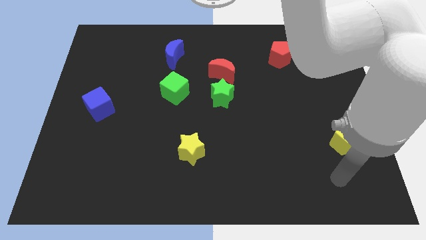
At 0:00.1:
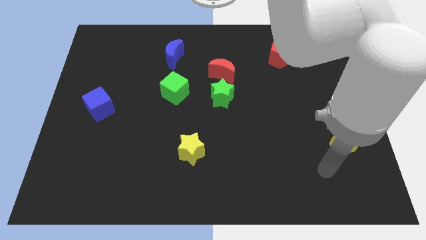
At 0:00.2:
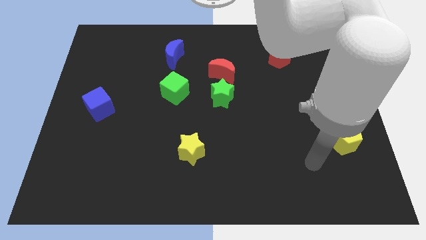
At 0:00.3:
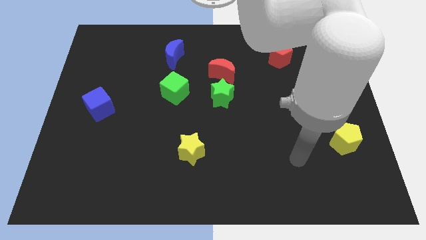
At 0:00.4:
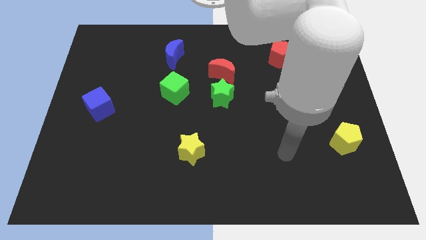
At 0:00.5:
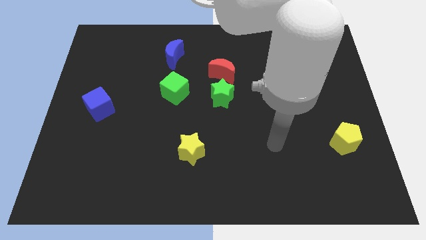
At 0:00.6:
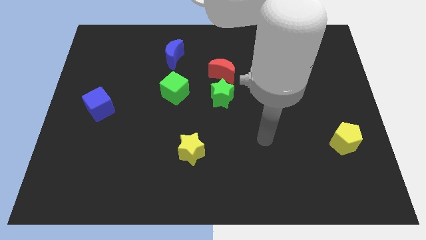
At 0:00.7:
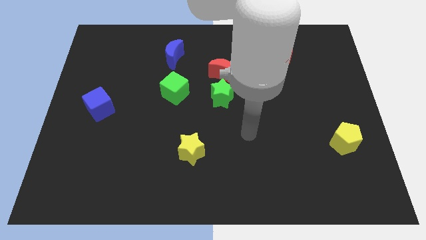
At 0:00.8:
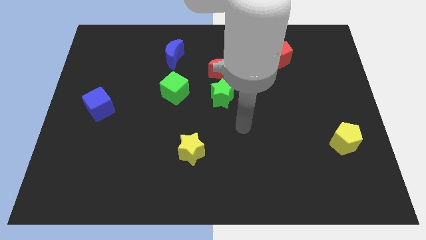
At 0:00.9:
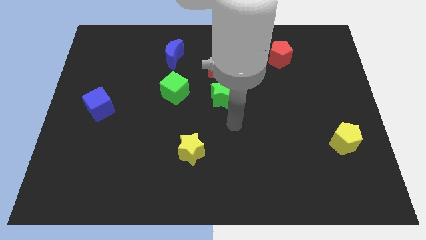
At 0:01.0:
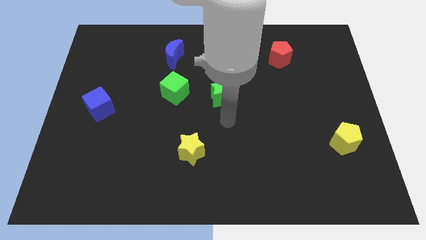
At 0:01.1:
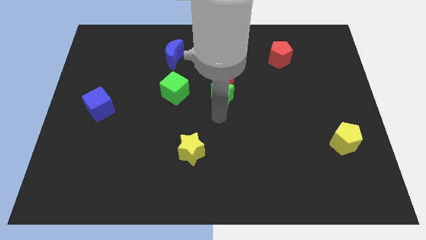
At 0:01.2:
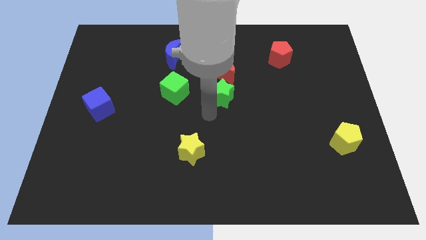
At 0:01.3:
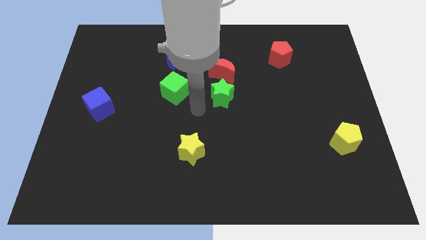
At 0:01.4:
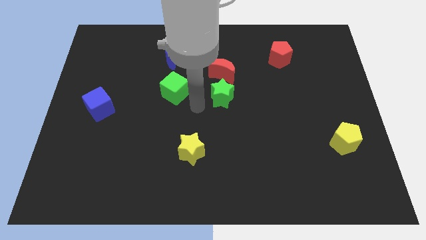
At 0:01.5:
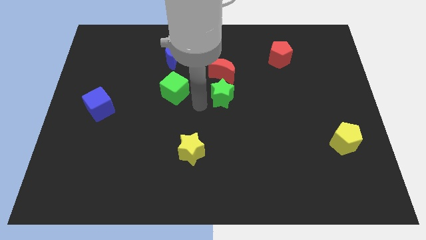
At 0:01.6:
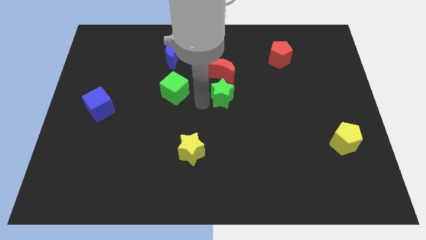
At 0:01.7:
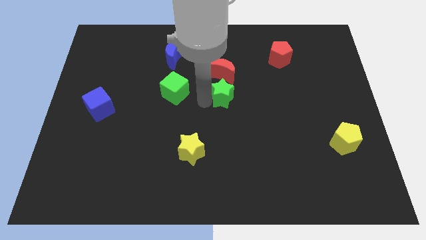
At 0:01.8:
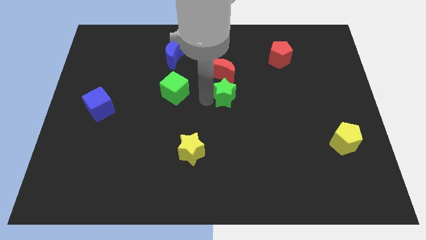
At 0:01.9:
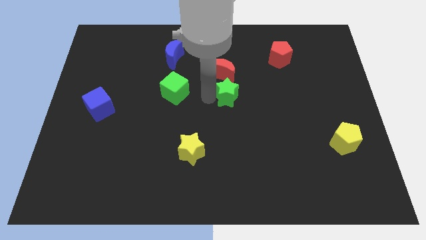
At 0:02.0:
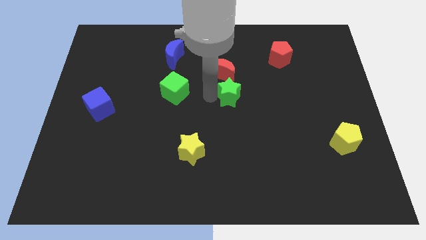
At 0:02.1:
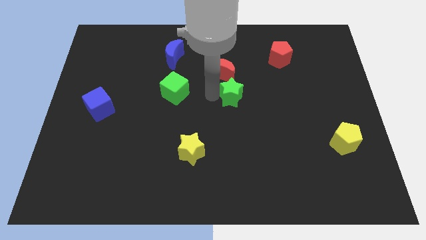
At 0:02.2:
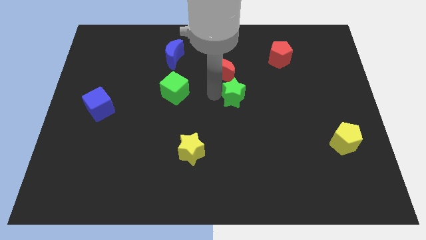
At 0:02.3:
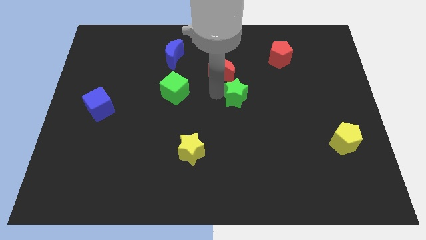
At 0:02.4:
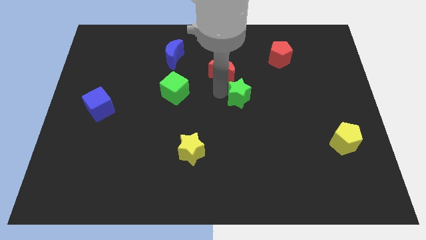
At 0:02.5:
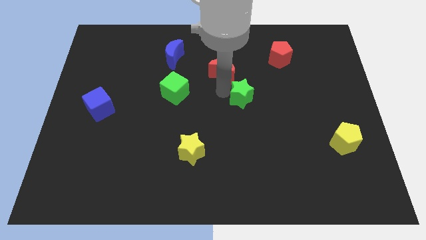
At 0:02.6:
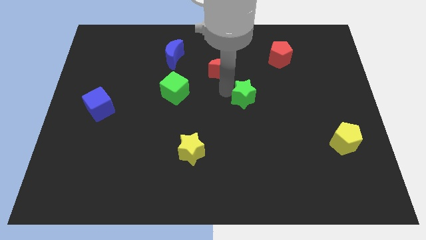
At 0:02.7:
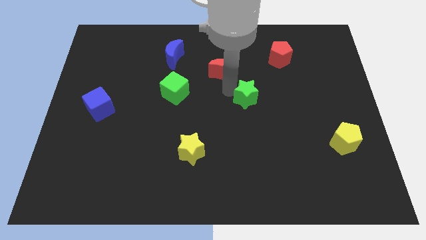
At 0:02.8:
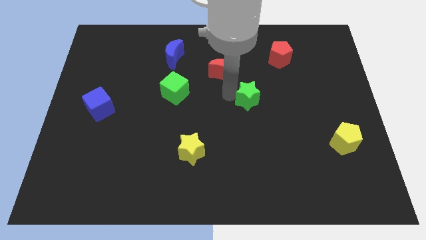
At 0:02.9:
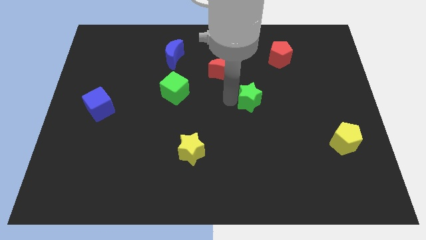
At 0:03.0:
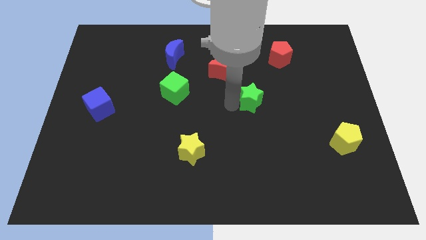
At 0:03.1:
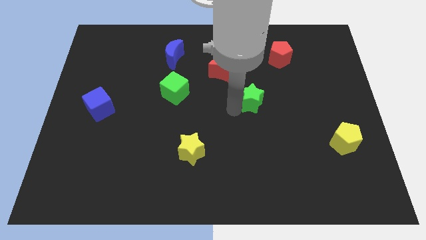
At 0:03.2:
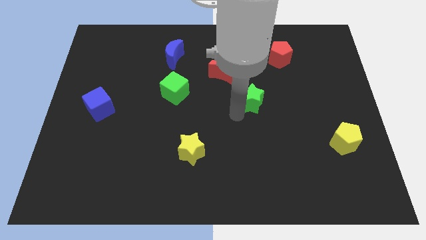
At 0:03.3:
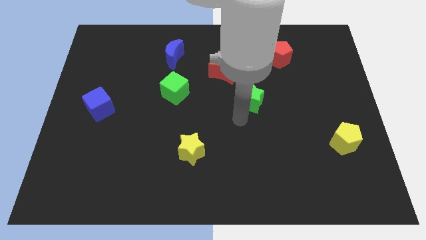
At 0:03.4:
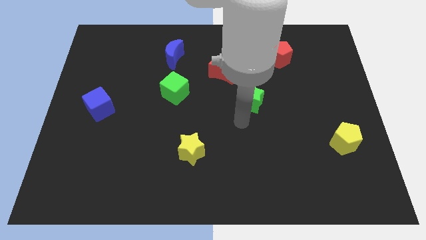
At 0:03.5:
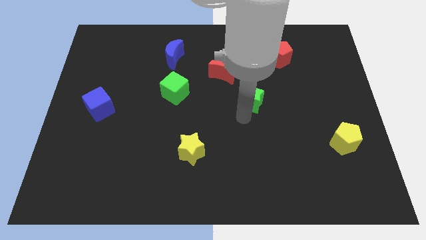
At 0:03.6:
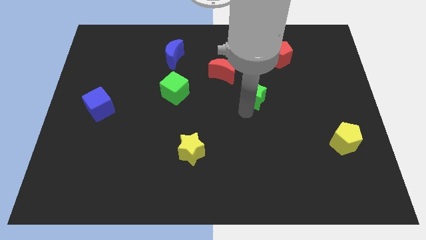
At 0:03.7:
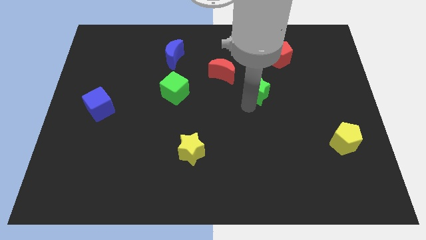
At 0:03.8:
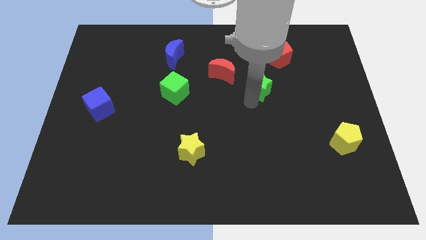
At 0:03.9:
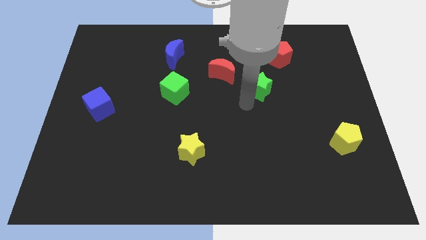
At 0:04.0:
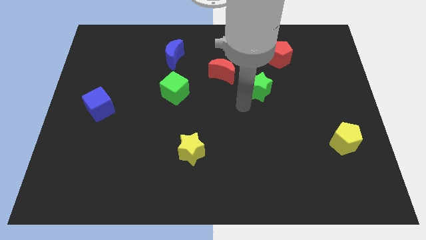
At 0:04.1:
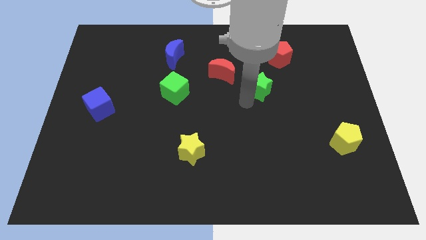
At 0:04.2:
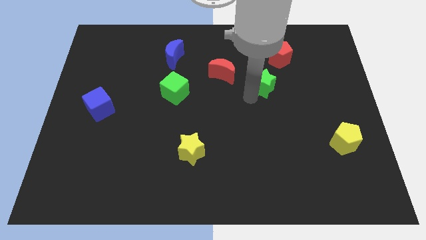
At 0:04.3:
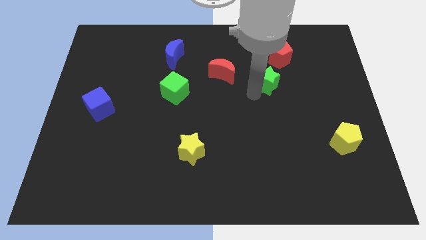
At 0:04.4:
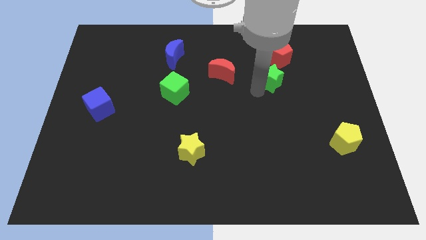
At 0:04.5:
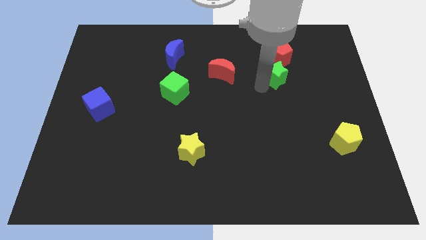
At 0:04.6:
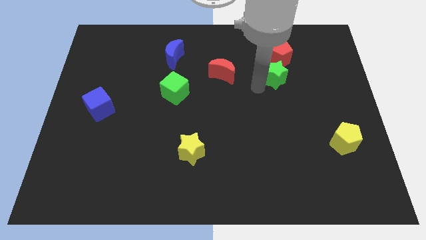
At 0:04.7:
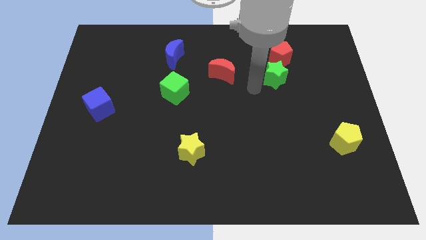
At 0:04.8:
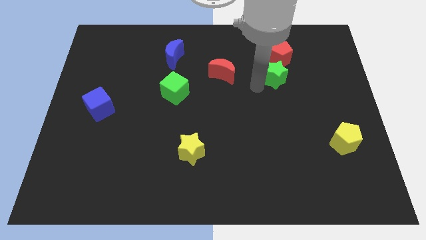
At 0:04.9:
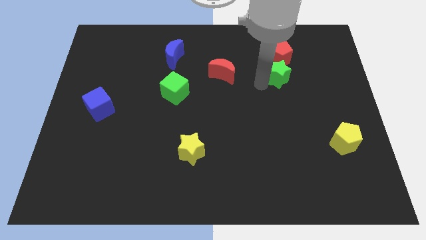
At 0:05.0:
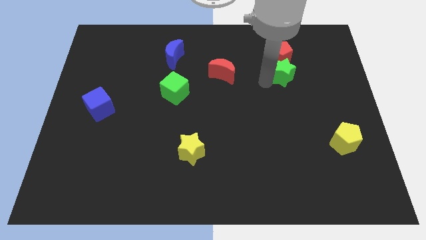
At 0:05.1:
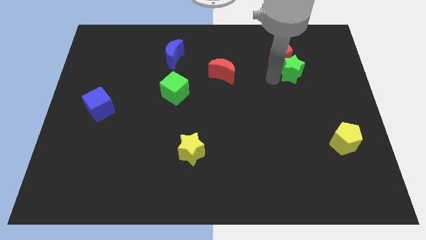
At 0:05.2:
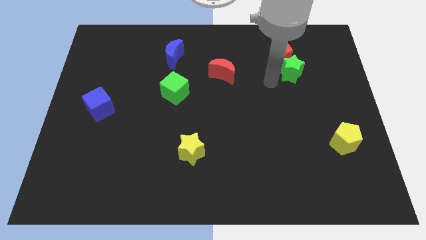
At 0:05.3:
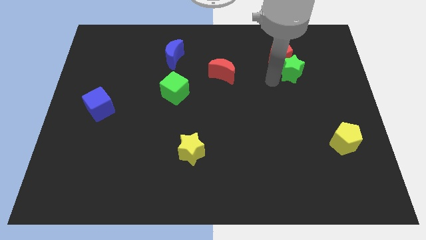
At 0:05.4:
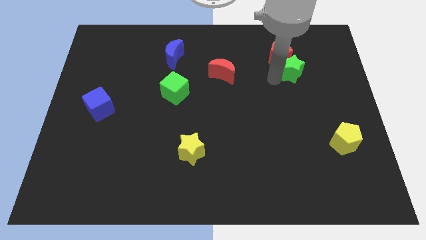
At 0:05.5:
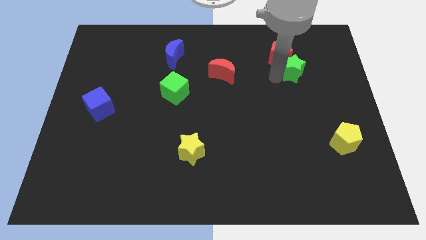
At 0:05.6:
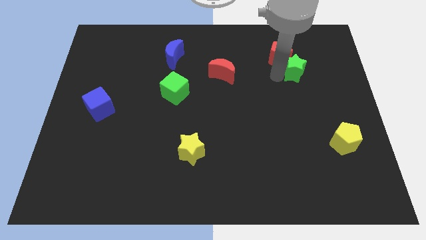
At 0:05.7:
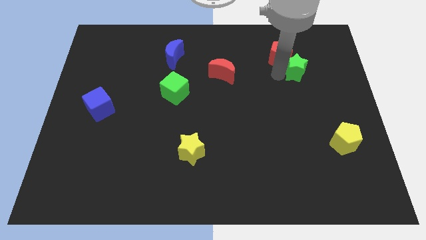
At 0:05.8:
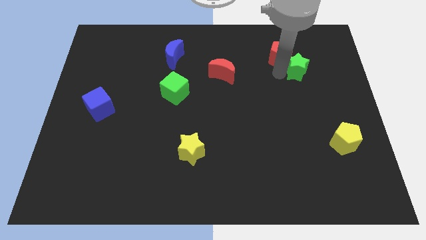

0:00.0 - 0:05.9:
put the green star right of the red pentagon
